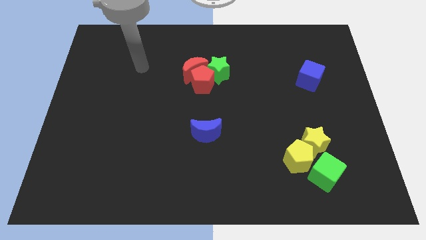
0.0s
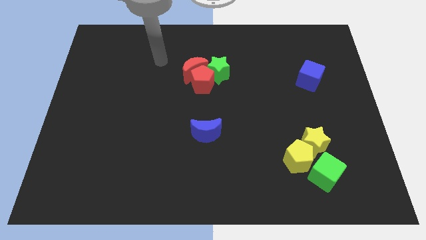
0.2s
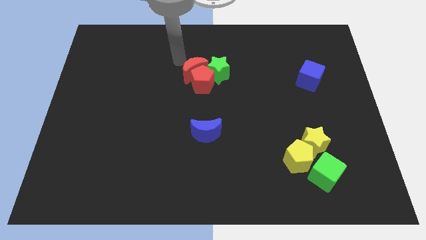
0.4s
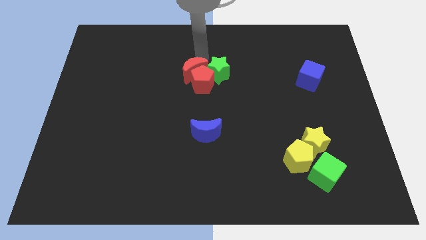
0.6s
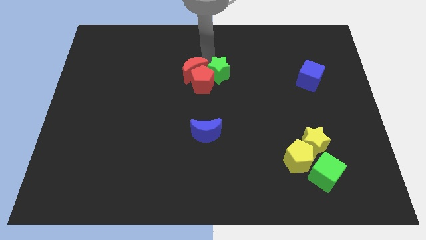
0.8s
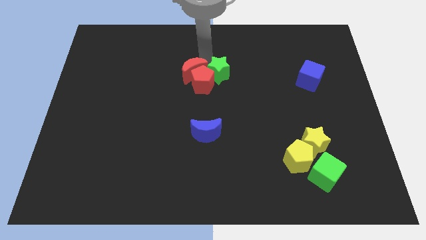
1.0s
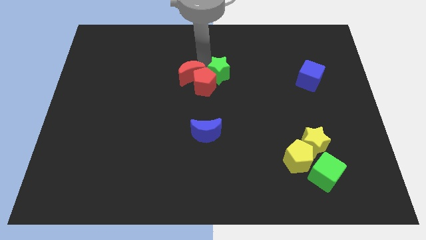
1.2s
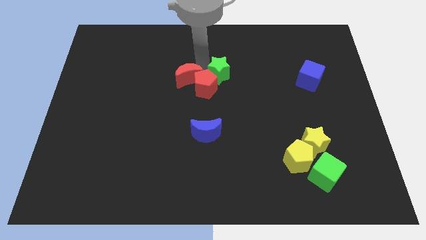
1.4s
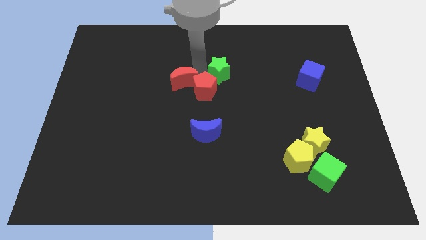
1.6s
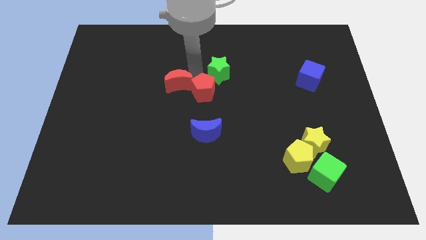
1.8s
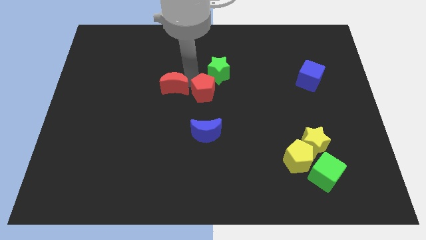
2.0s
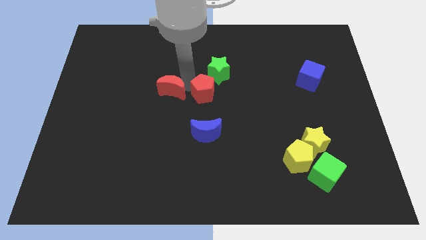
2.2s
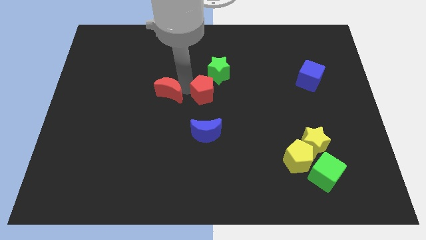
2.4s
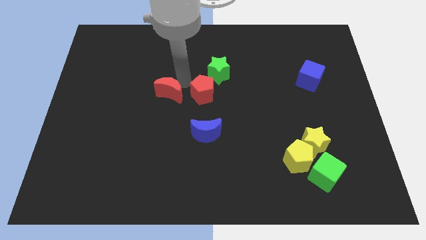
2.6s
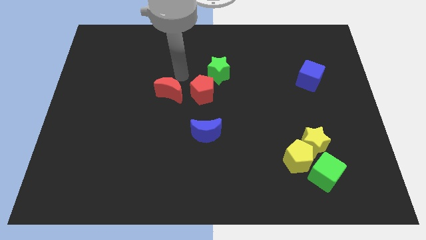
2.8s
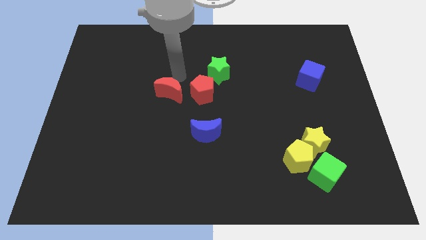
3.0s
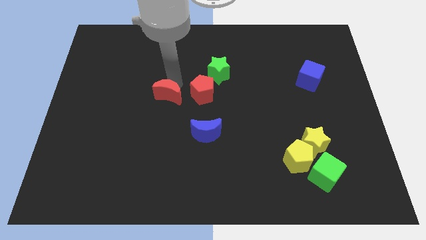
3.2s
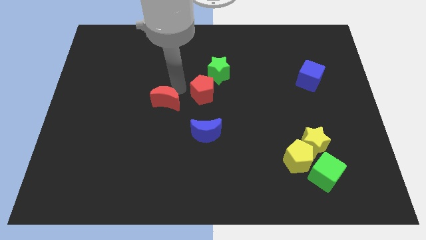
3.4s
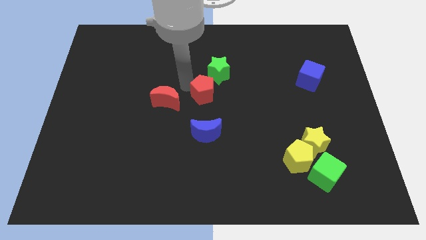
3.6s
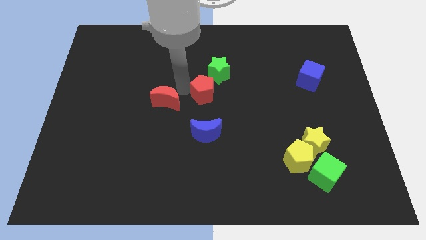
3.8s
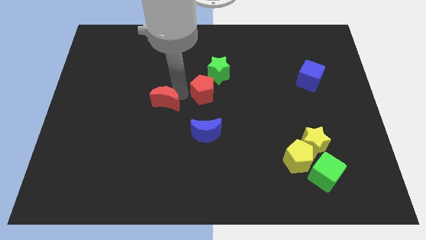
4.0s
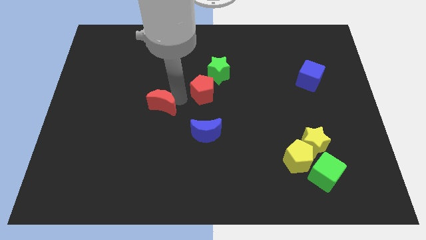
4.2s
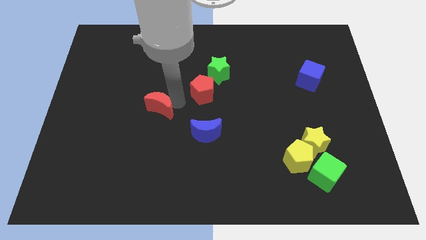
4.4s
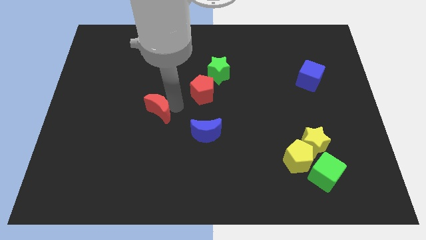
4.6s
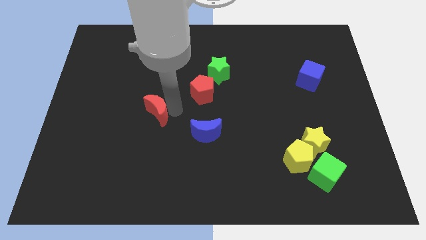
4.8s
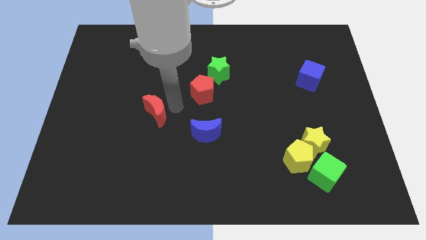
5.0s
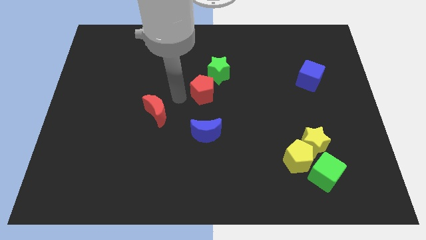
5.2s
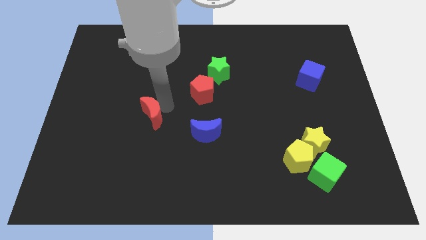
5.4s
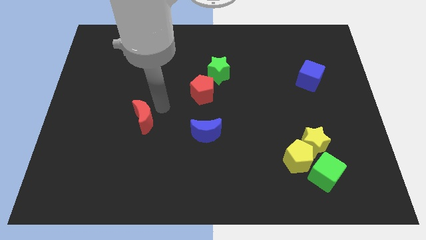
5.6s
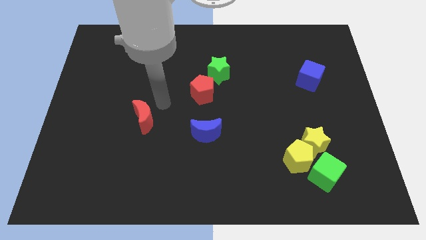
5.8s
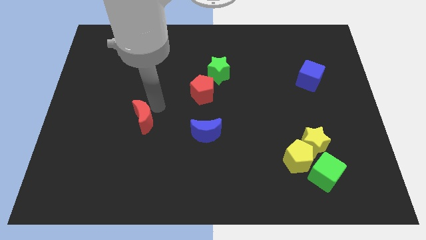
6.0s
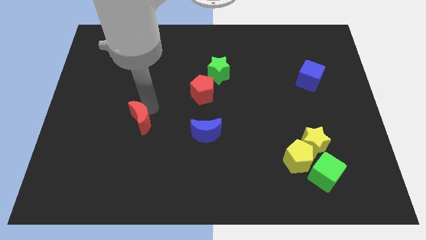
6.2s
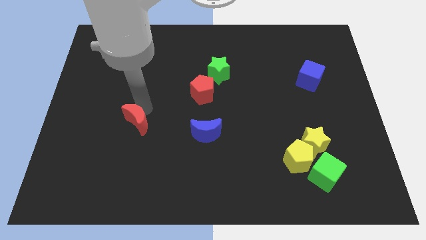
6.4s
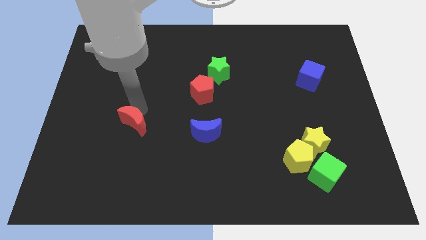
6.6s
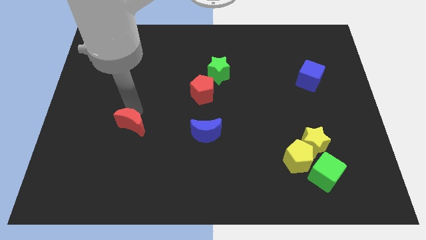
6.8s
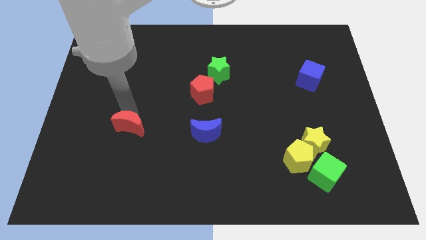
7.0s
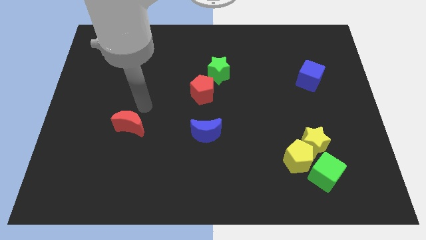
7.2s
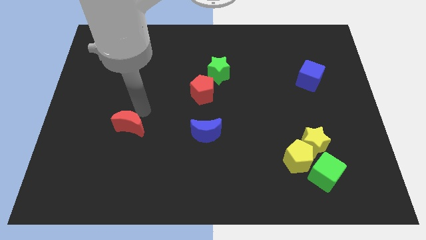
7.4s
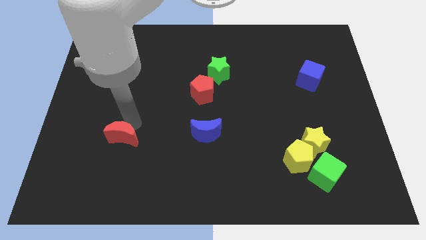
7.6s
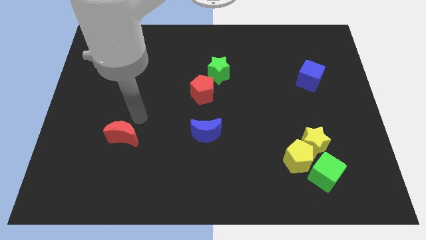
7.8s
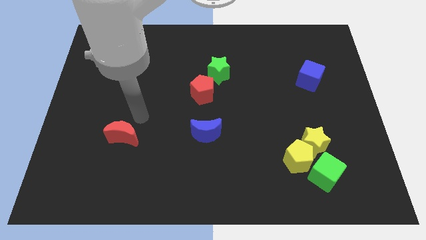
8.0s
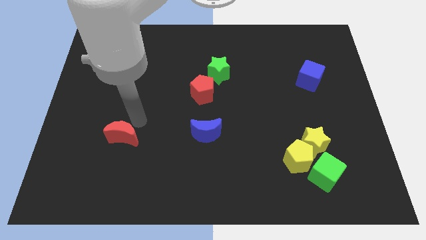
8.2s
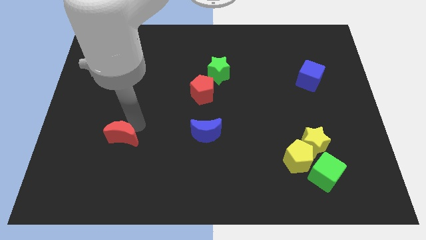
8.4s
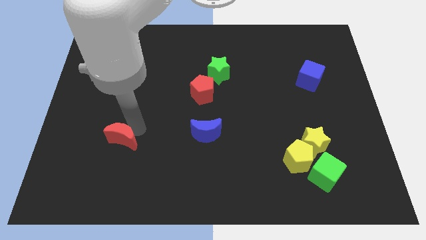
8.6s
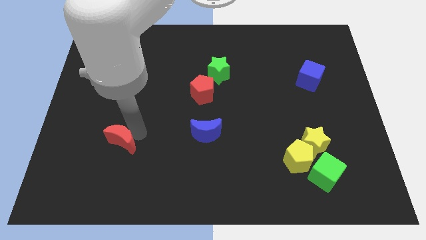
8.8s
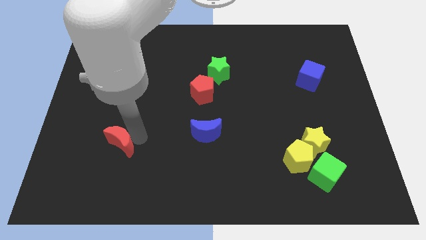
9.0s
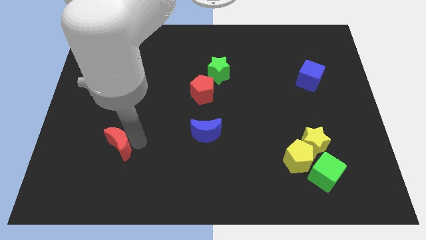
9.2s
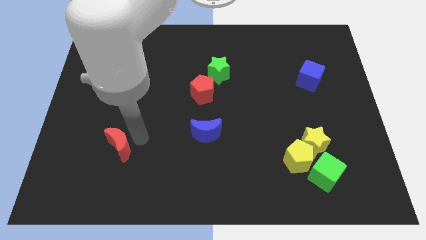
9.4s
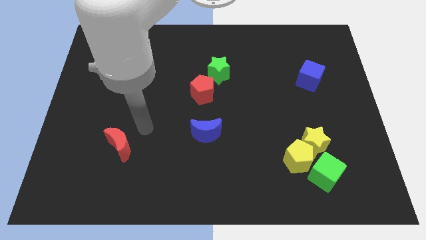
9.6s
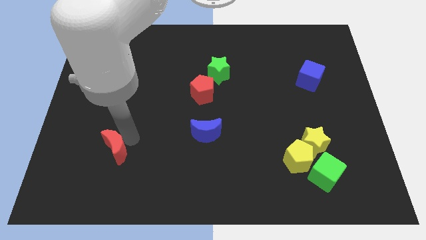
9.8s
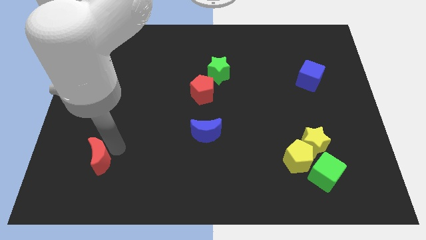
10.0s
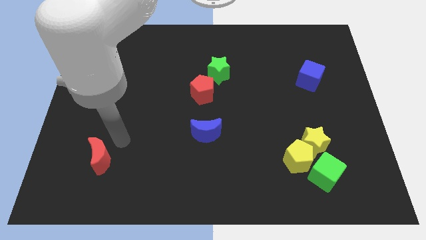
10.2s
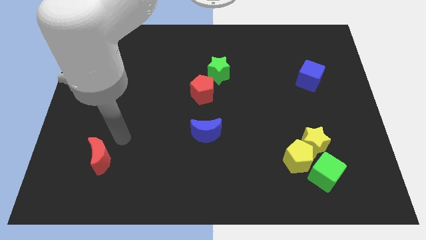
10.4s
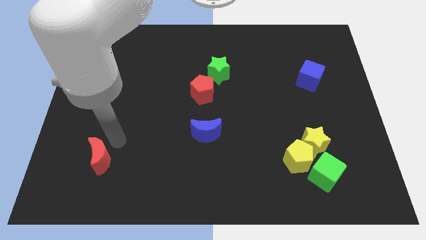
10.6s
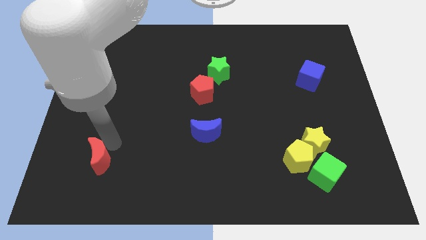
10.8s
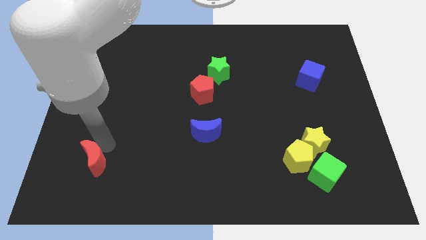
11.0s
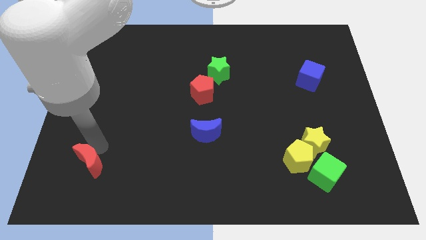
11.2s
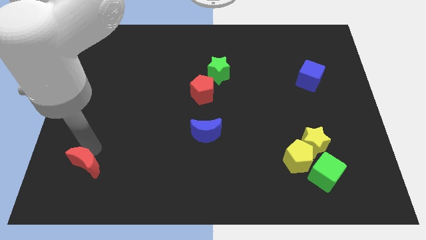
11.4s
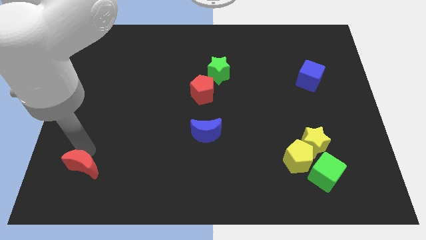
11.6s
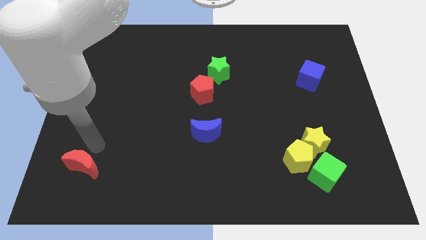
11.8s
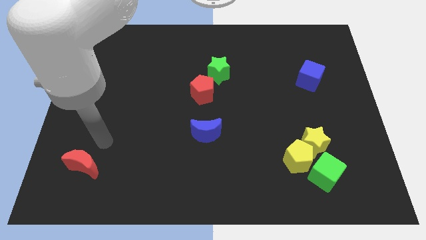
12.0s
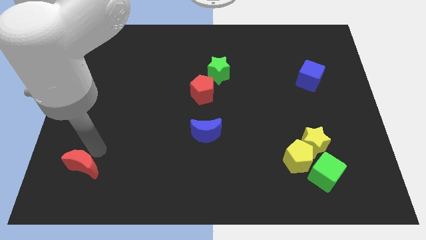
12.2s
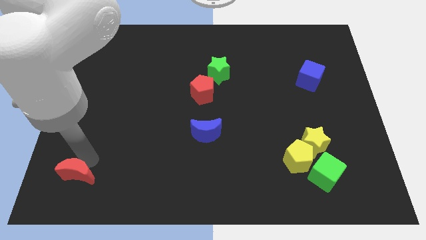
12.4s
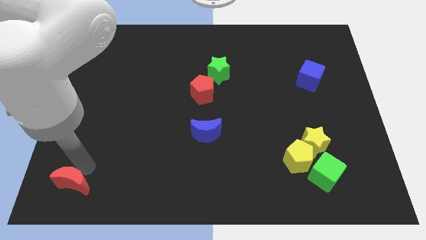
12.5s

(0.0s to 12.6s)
put the red moon to the bottom left corner
